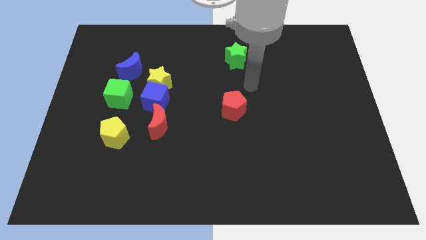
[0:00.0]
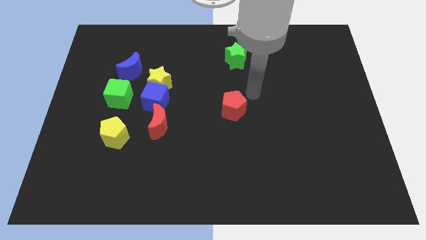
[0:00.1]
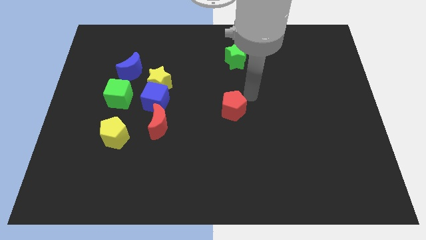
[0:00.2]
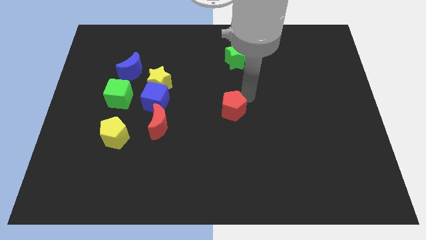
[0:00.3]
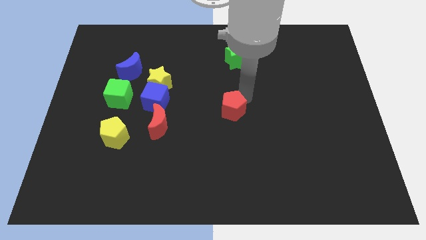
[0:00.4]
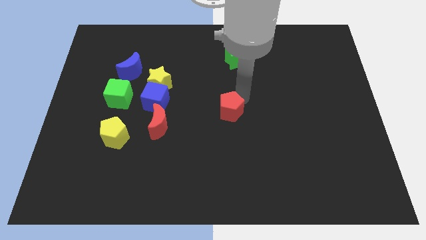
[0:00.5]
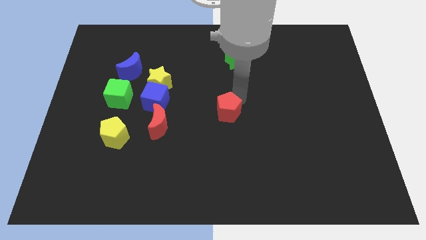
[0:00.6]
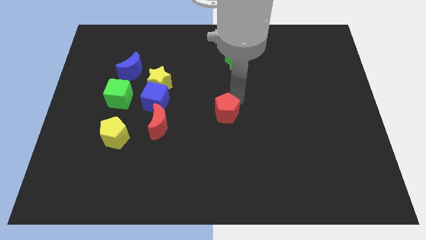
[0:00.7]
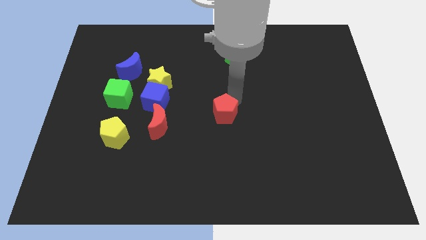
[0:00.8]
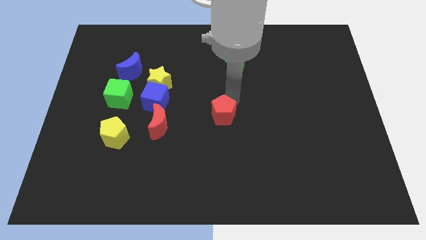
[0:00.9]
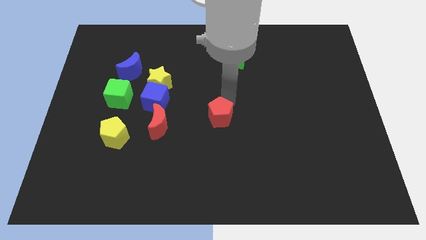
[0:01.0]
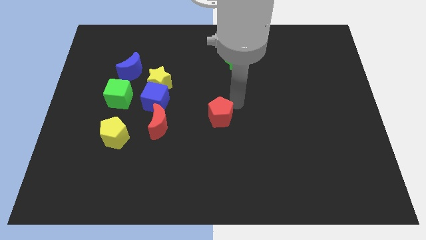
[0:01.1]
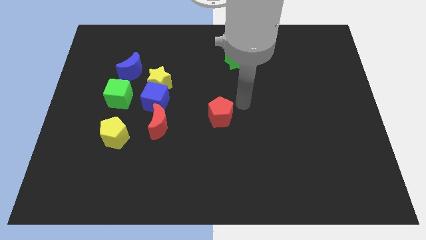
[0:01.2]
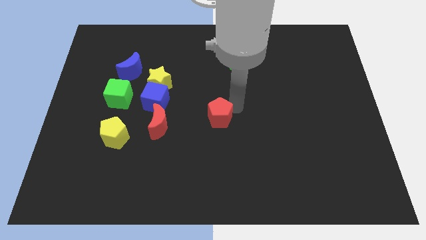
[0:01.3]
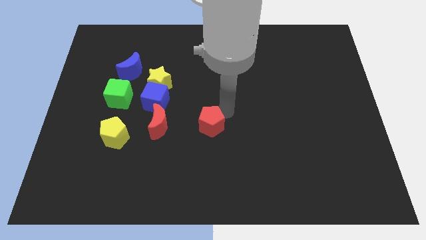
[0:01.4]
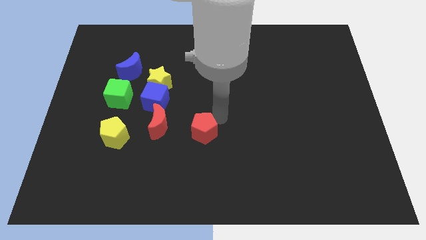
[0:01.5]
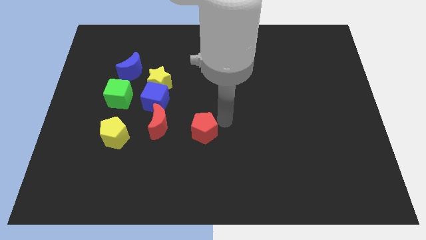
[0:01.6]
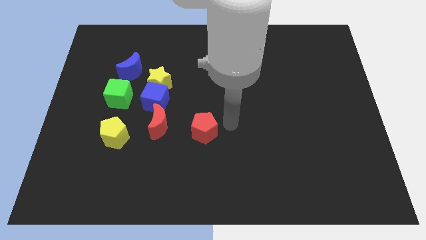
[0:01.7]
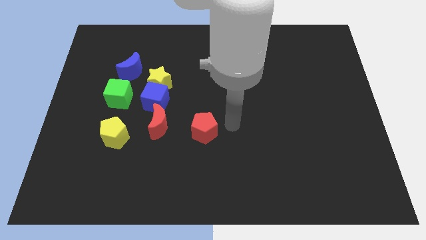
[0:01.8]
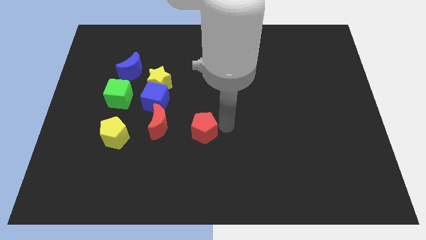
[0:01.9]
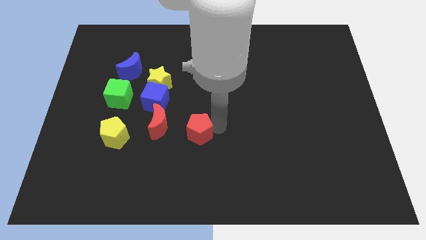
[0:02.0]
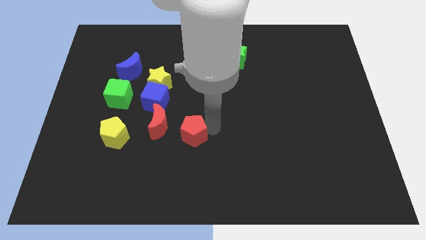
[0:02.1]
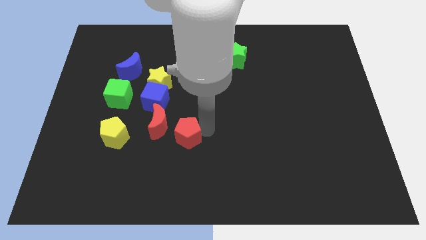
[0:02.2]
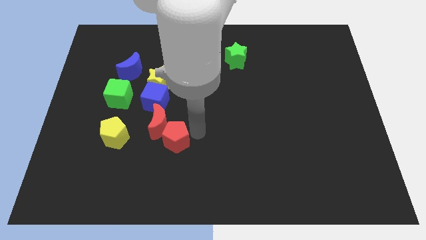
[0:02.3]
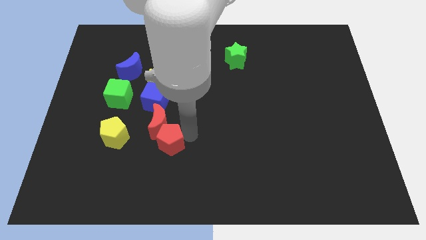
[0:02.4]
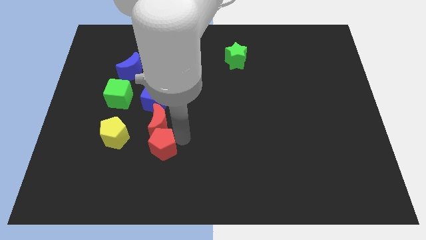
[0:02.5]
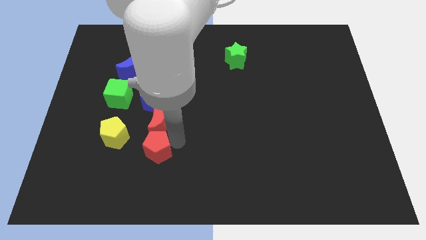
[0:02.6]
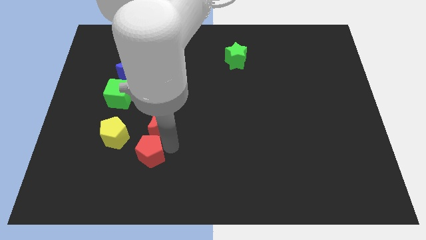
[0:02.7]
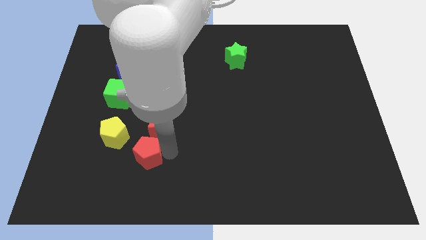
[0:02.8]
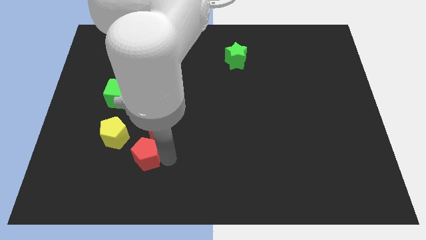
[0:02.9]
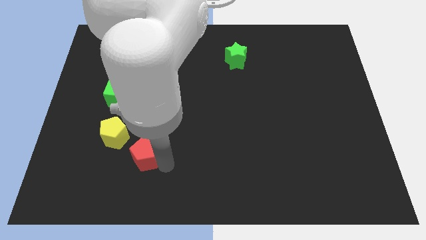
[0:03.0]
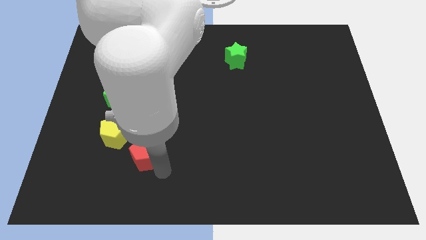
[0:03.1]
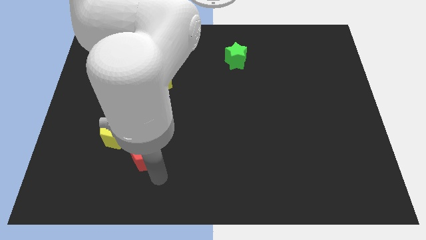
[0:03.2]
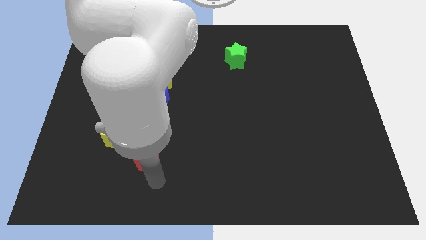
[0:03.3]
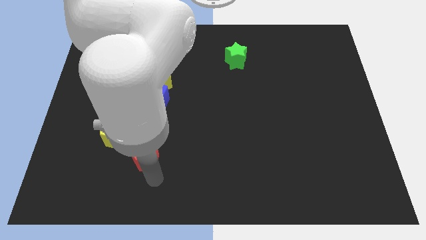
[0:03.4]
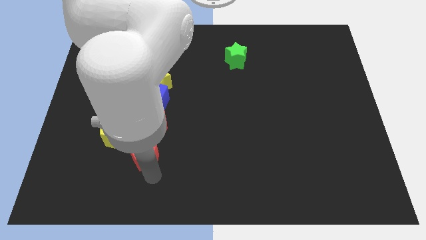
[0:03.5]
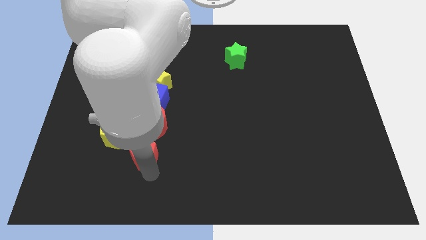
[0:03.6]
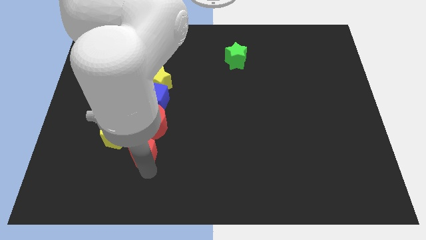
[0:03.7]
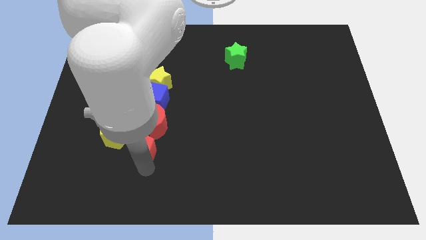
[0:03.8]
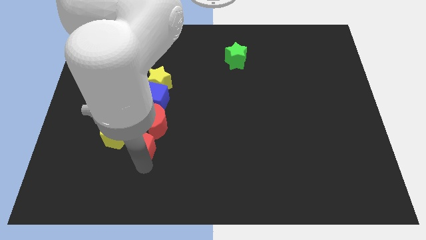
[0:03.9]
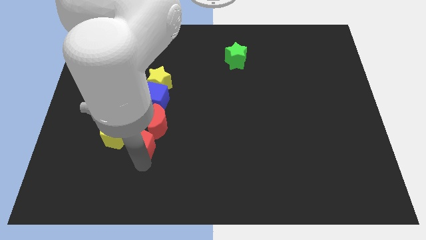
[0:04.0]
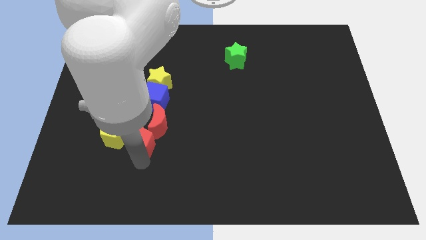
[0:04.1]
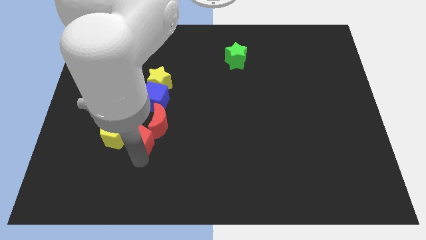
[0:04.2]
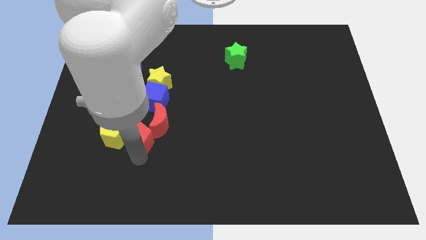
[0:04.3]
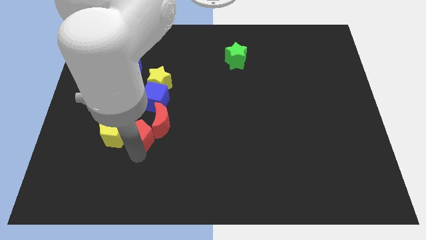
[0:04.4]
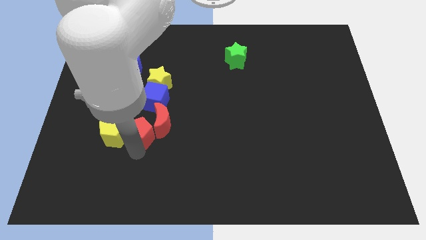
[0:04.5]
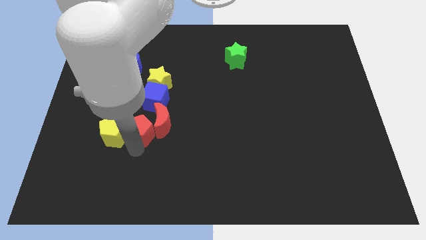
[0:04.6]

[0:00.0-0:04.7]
slide the red pentagon to the bottom left side of the blue cube

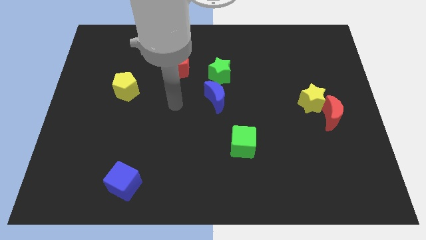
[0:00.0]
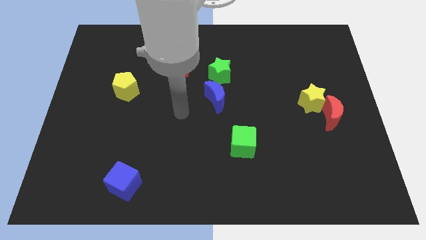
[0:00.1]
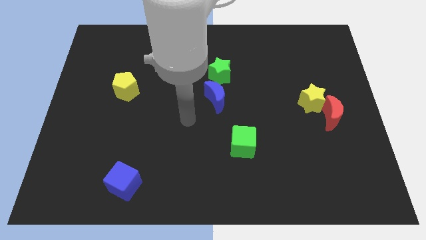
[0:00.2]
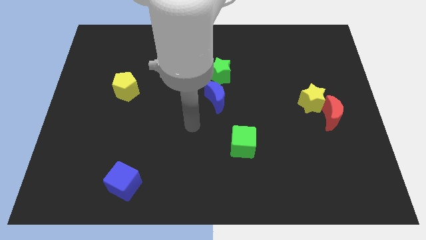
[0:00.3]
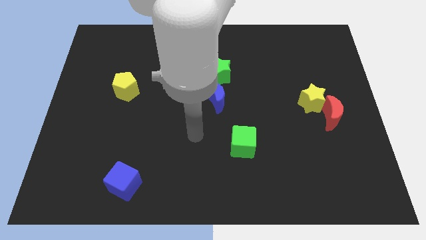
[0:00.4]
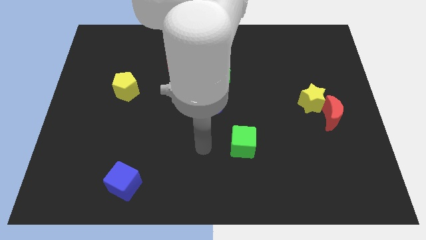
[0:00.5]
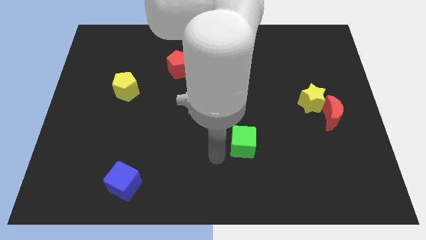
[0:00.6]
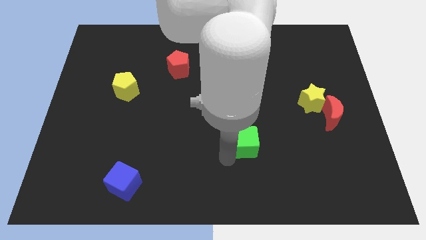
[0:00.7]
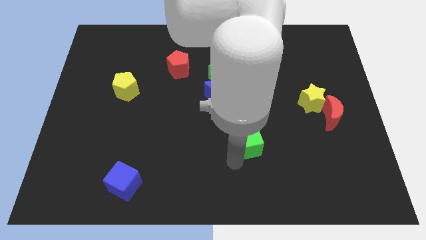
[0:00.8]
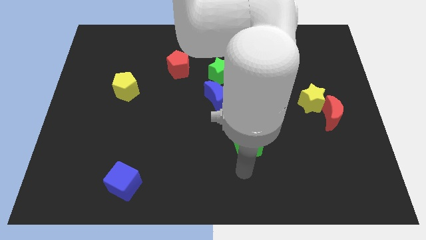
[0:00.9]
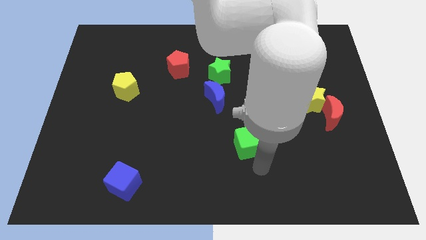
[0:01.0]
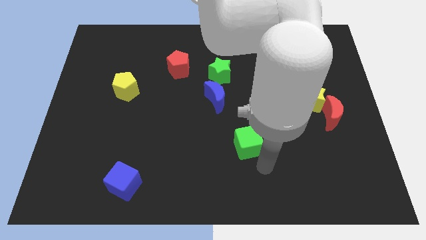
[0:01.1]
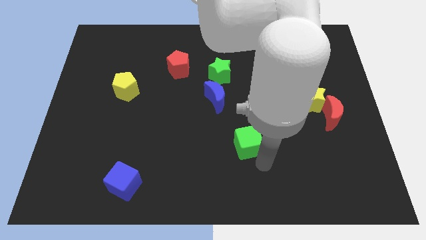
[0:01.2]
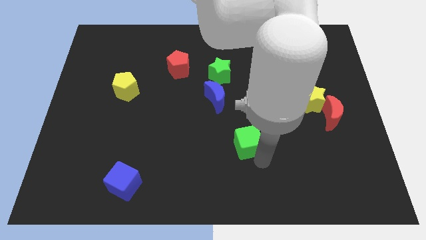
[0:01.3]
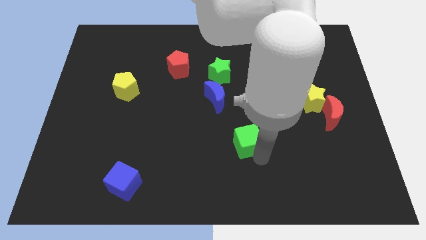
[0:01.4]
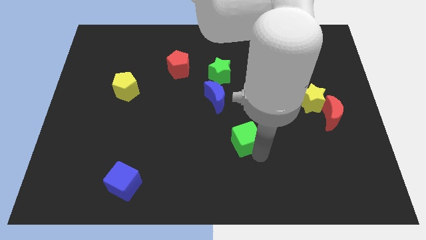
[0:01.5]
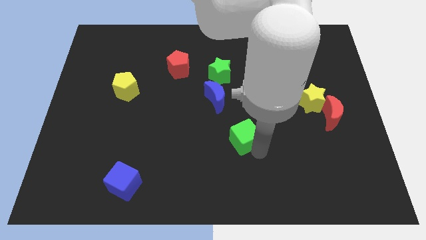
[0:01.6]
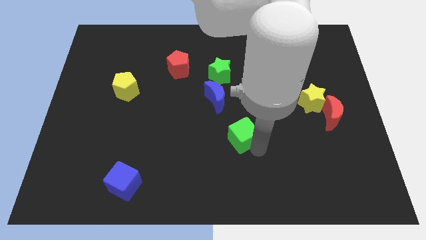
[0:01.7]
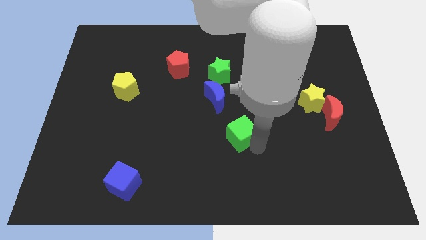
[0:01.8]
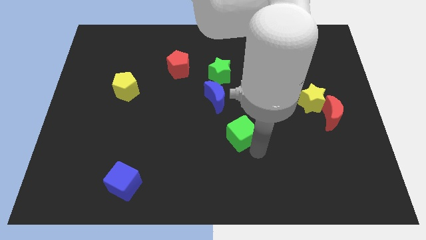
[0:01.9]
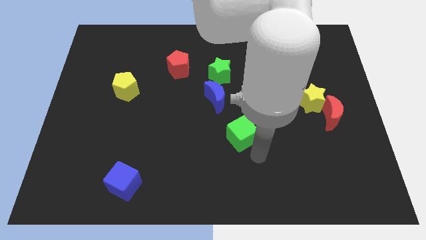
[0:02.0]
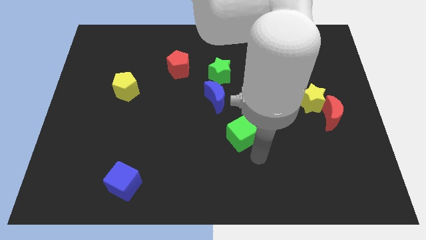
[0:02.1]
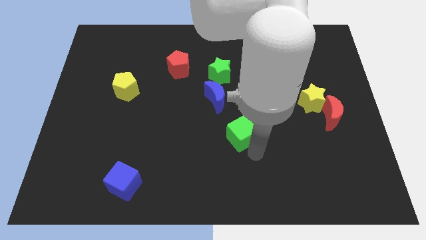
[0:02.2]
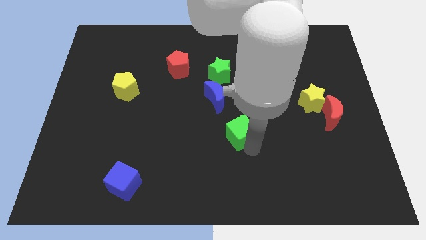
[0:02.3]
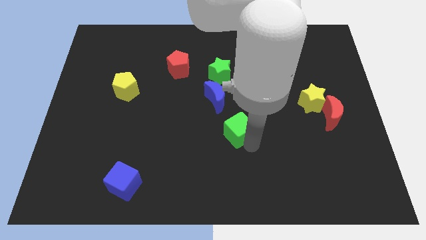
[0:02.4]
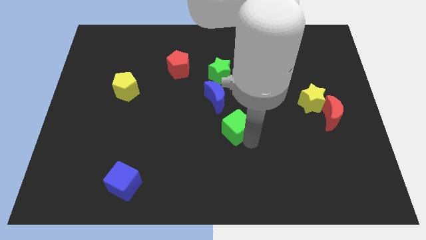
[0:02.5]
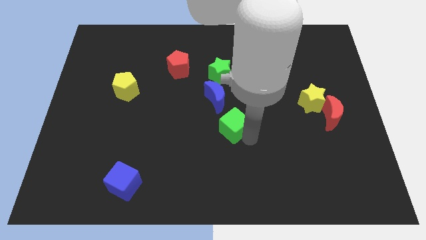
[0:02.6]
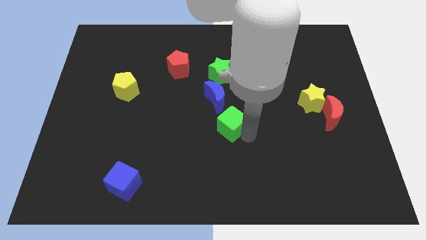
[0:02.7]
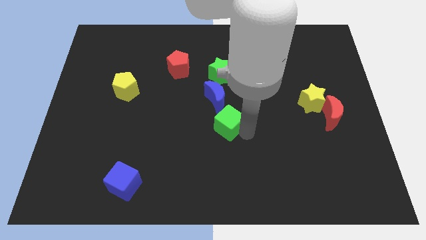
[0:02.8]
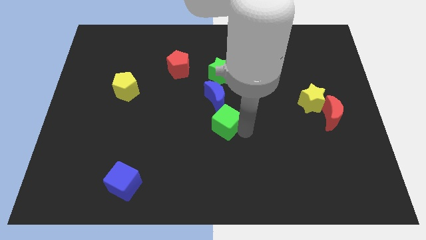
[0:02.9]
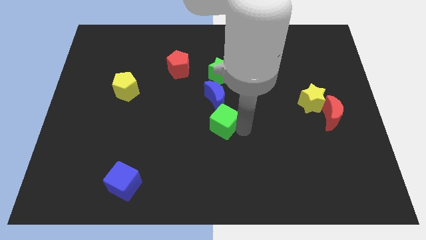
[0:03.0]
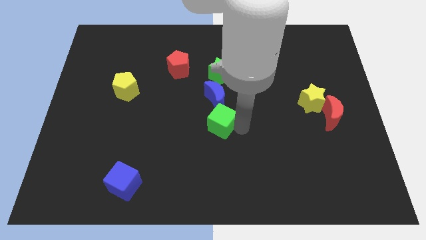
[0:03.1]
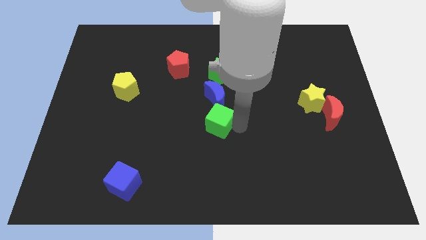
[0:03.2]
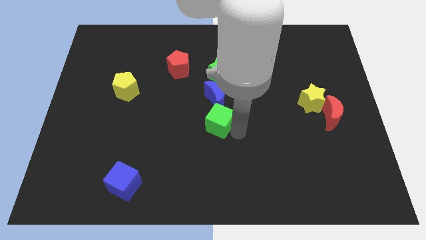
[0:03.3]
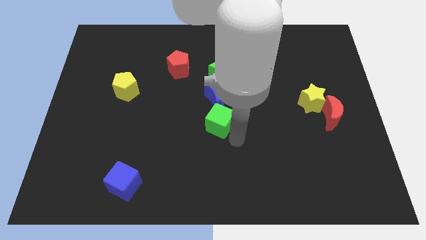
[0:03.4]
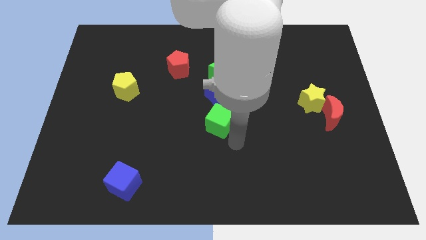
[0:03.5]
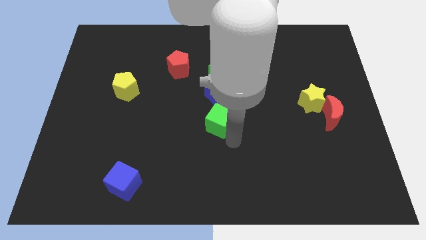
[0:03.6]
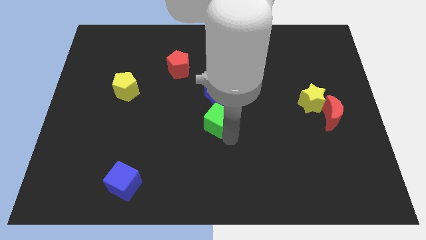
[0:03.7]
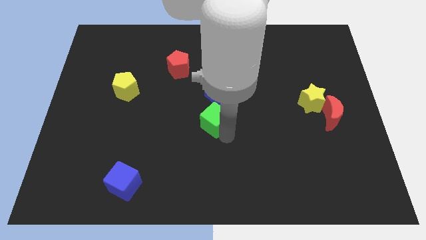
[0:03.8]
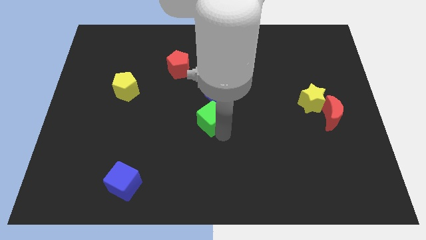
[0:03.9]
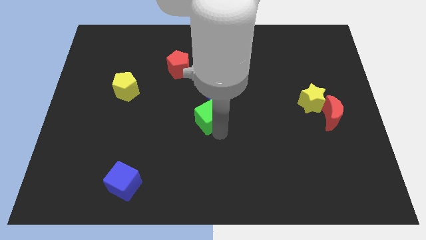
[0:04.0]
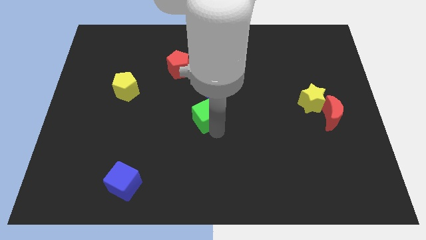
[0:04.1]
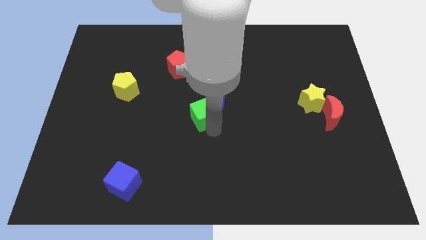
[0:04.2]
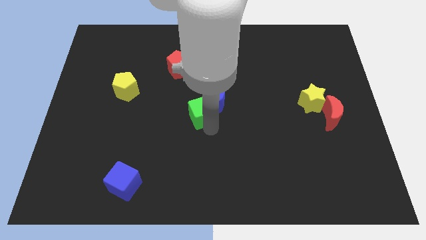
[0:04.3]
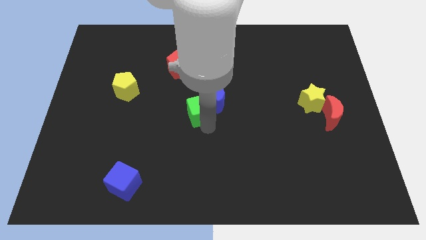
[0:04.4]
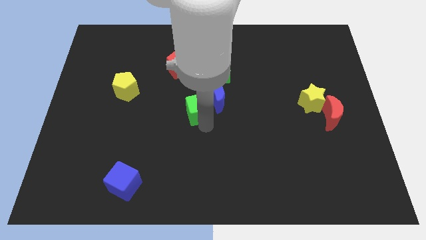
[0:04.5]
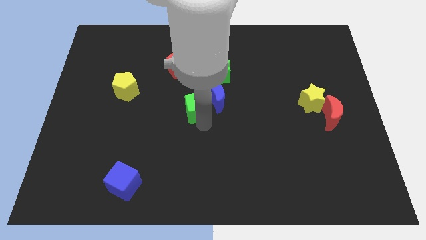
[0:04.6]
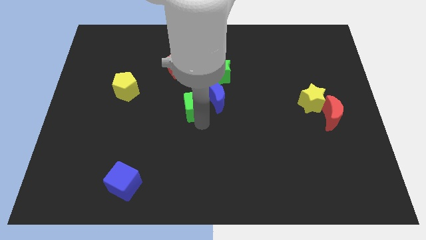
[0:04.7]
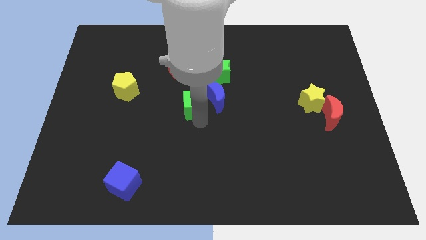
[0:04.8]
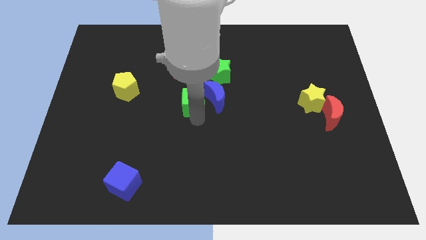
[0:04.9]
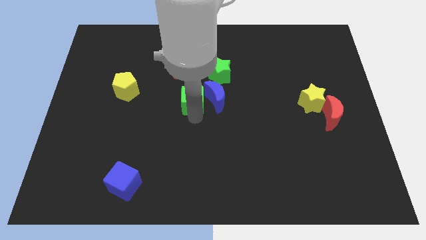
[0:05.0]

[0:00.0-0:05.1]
push the green cube to the top left side of the blue moon
